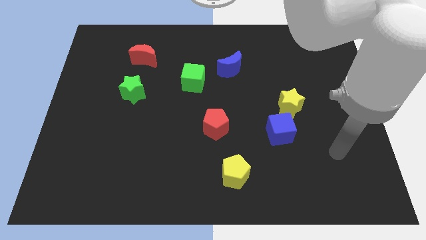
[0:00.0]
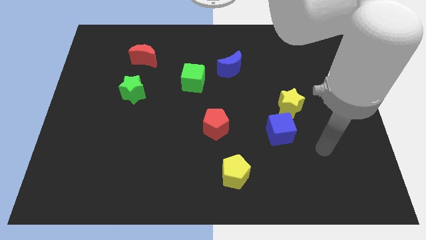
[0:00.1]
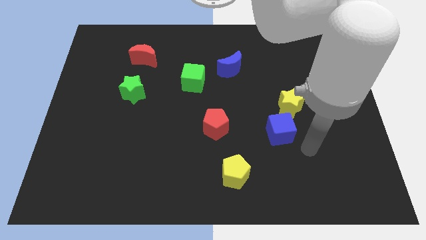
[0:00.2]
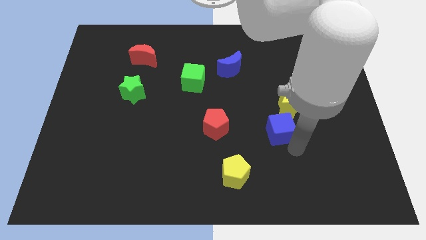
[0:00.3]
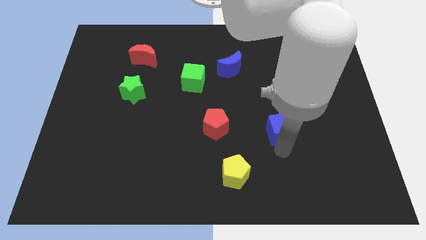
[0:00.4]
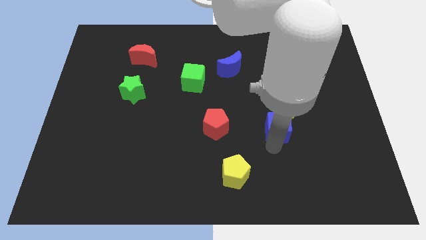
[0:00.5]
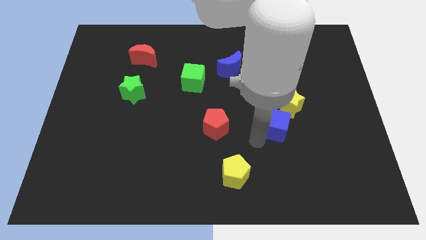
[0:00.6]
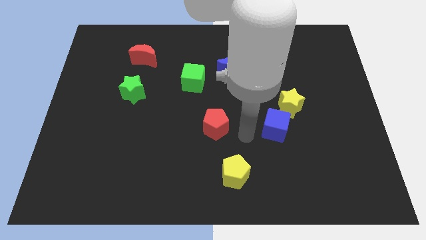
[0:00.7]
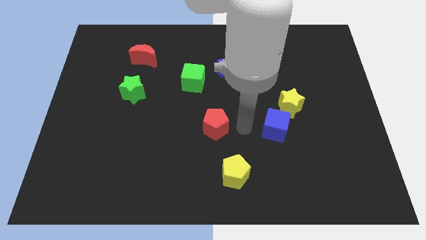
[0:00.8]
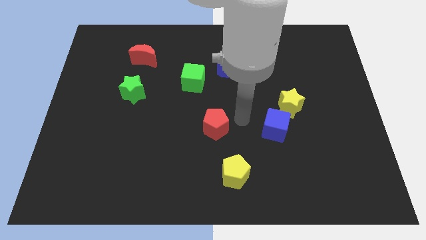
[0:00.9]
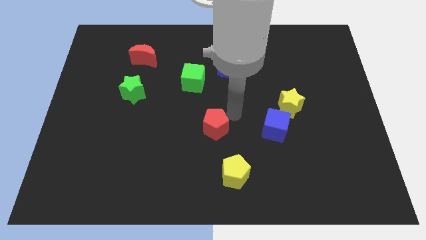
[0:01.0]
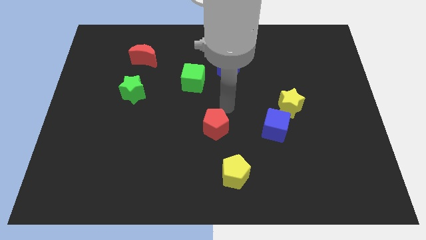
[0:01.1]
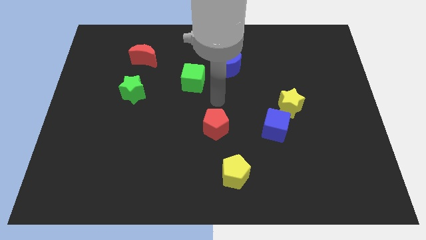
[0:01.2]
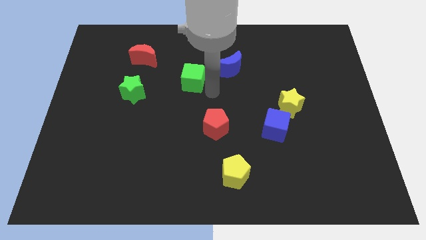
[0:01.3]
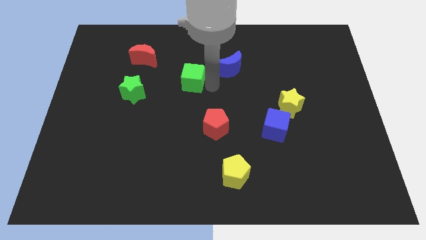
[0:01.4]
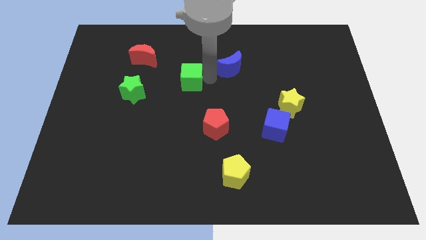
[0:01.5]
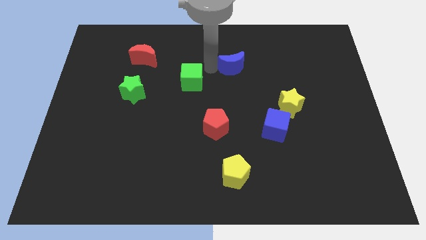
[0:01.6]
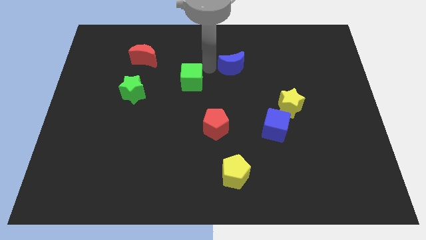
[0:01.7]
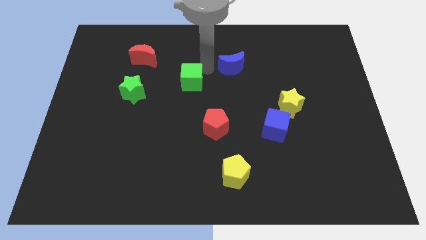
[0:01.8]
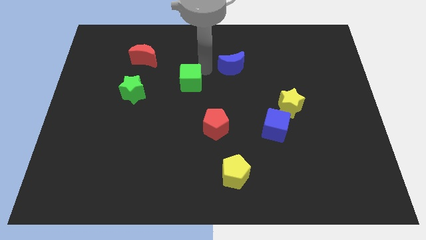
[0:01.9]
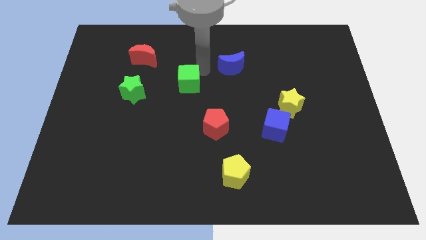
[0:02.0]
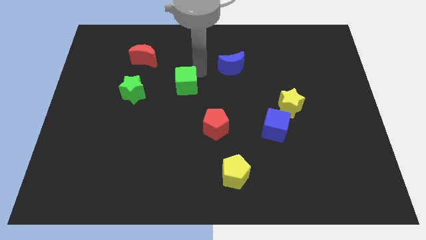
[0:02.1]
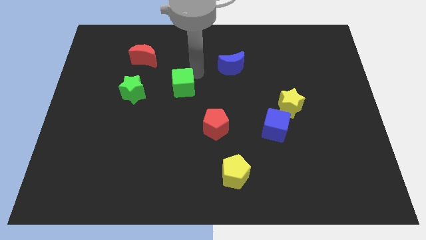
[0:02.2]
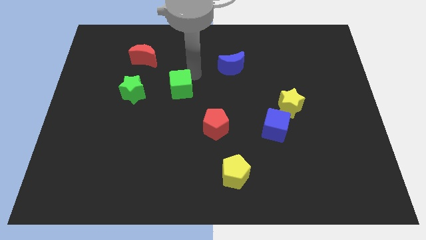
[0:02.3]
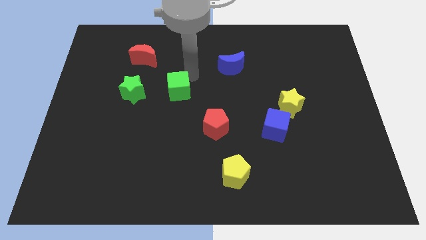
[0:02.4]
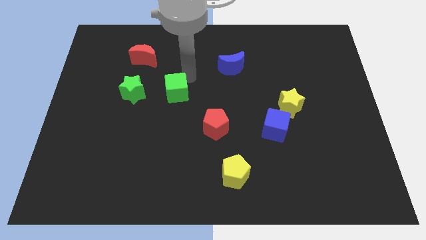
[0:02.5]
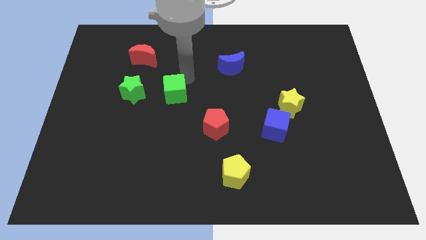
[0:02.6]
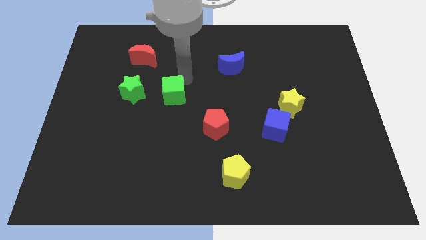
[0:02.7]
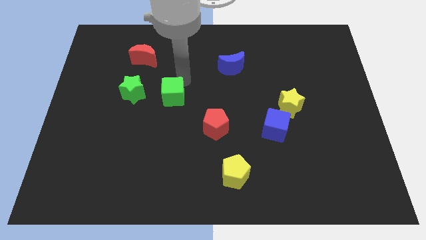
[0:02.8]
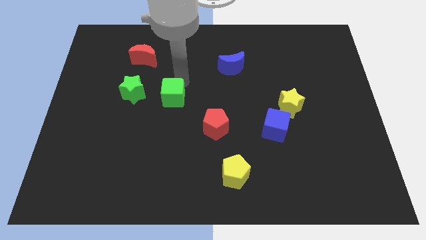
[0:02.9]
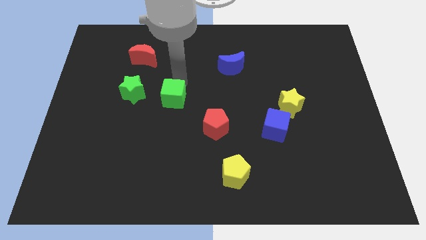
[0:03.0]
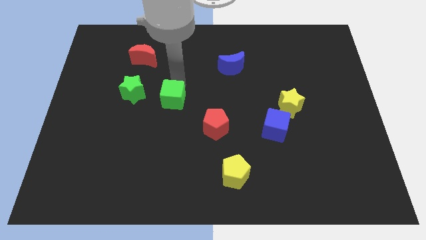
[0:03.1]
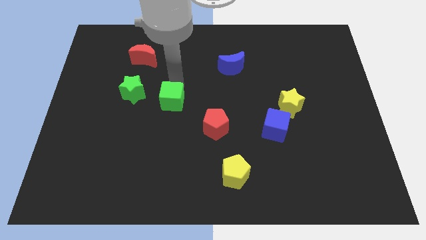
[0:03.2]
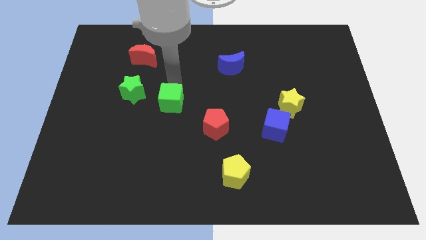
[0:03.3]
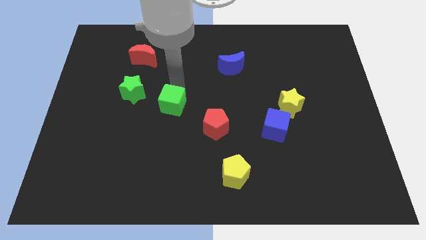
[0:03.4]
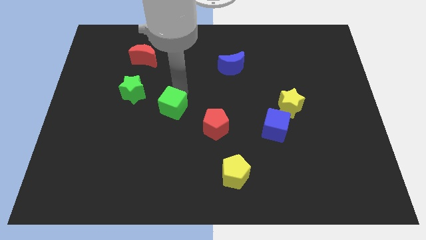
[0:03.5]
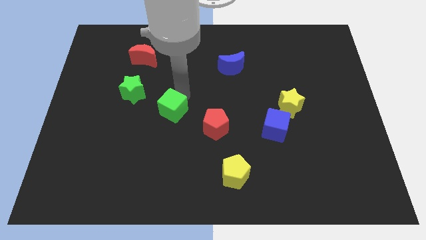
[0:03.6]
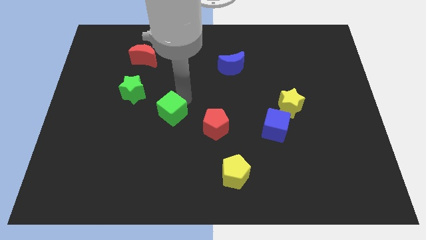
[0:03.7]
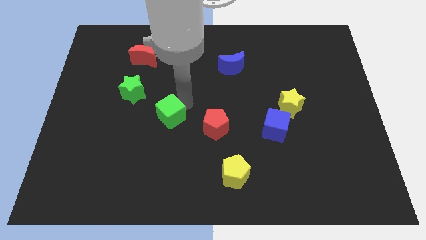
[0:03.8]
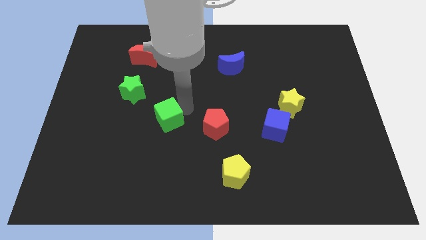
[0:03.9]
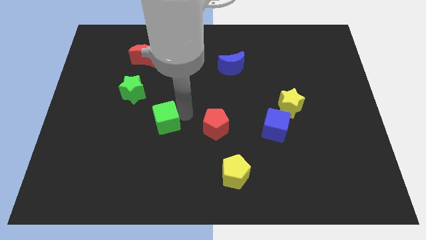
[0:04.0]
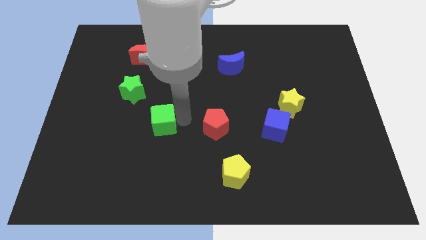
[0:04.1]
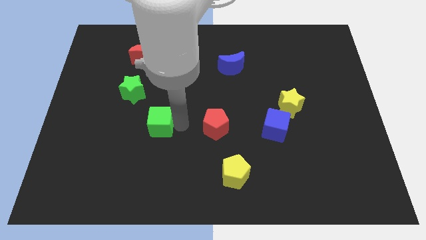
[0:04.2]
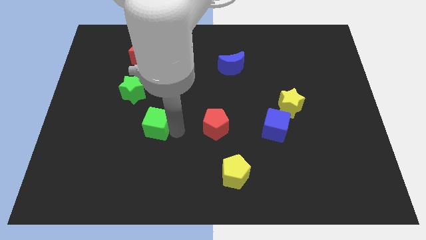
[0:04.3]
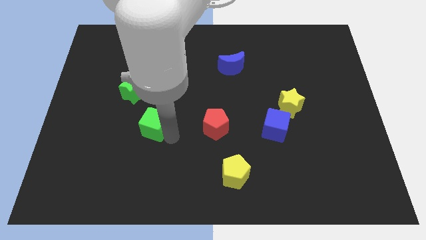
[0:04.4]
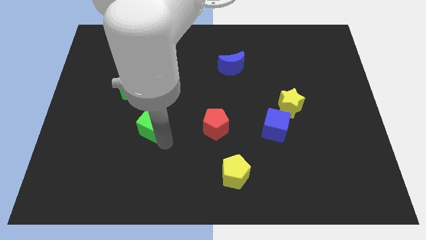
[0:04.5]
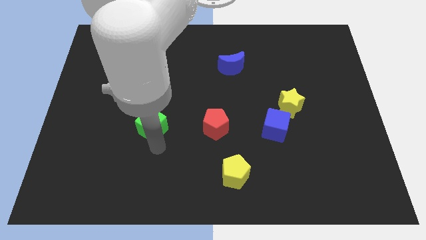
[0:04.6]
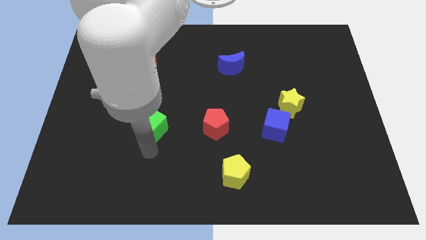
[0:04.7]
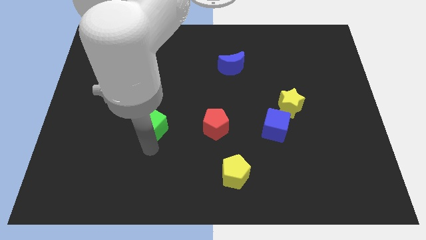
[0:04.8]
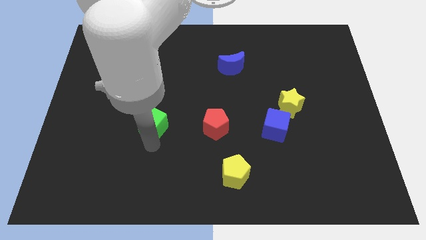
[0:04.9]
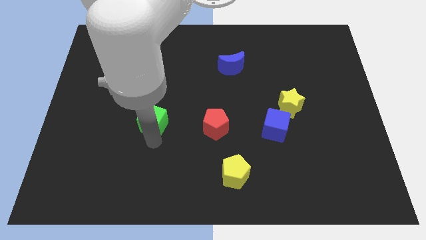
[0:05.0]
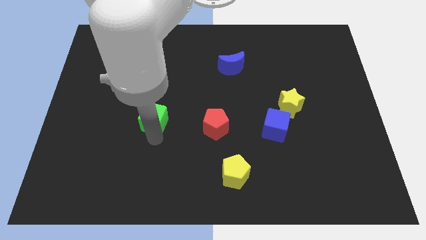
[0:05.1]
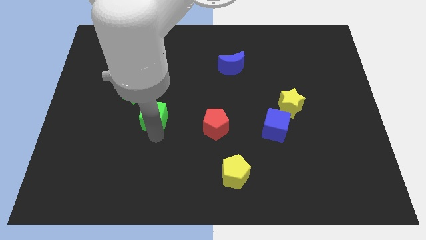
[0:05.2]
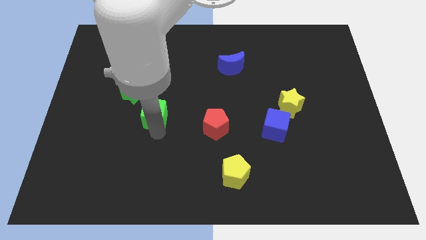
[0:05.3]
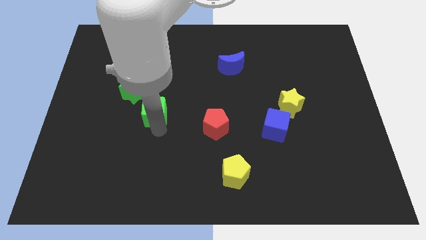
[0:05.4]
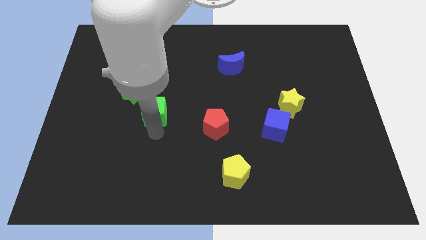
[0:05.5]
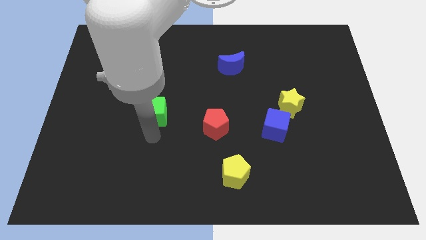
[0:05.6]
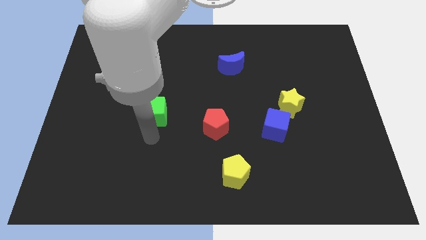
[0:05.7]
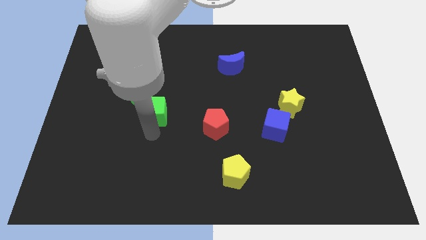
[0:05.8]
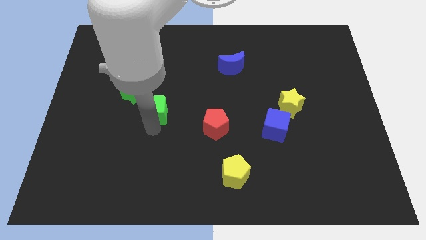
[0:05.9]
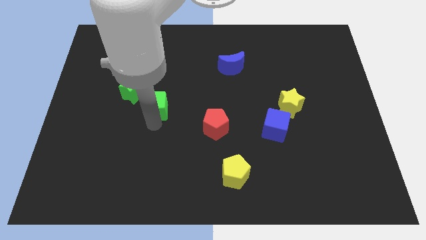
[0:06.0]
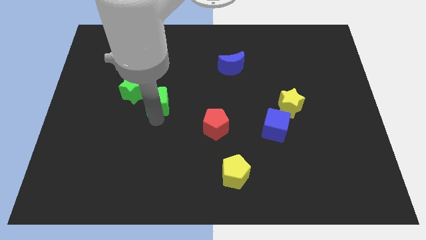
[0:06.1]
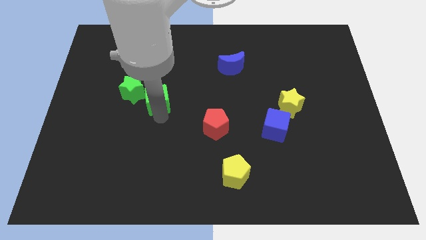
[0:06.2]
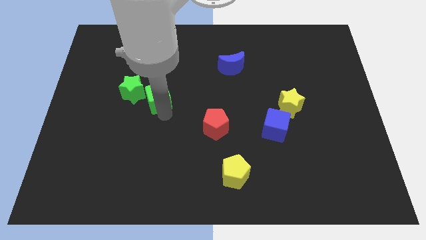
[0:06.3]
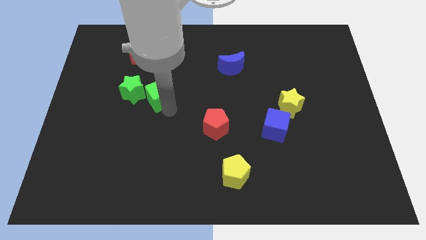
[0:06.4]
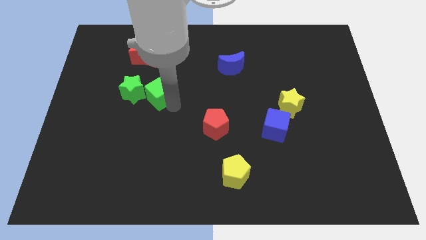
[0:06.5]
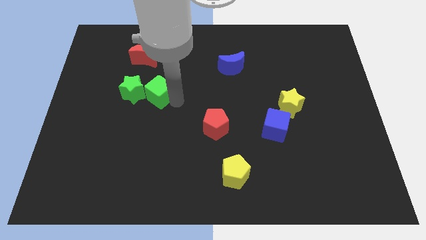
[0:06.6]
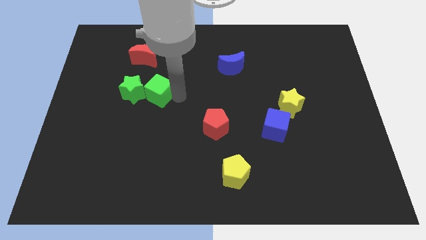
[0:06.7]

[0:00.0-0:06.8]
move the green cube to the bottom of the red moon

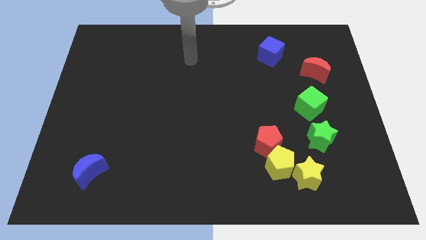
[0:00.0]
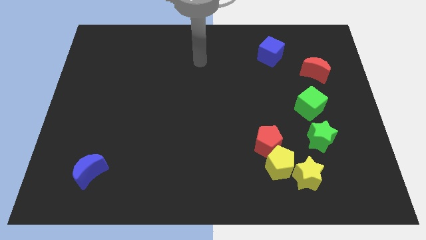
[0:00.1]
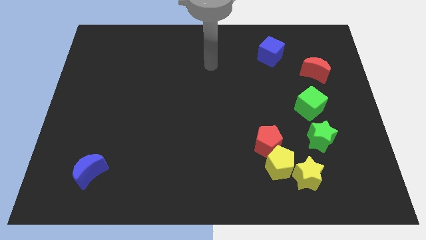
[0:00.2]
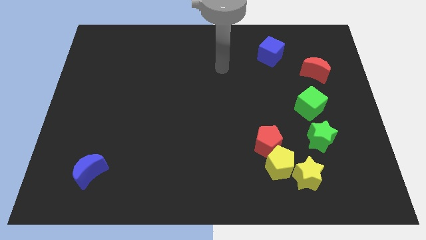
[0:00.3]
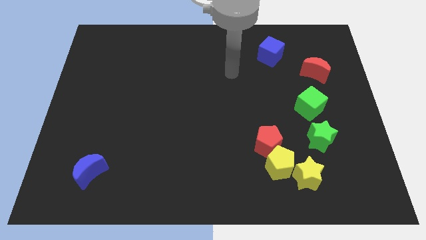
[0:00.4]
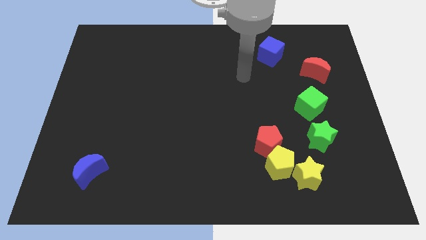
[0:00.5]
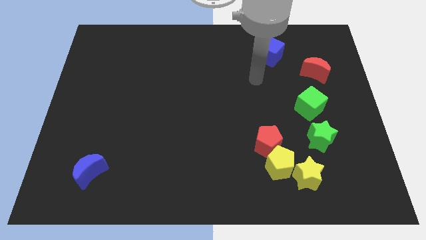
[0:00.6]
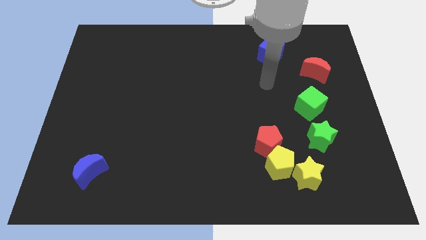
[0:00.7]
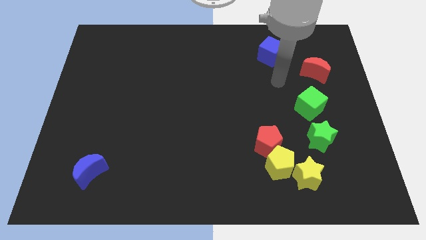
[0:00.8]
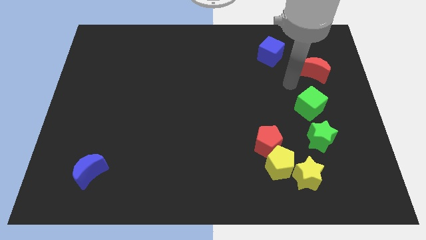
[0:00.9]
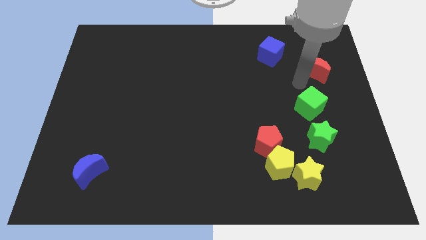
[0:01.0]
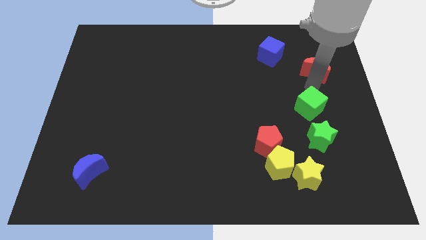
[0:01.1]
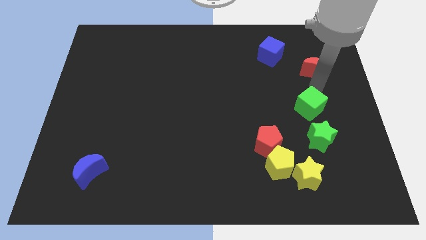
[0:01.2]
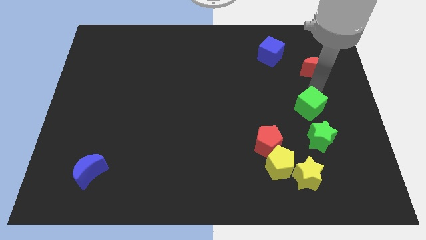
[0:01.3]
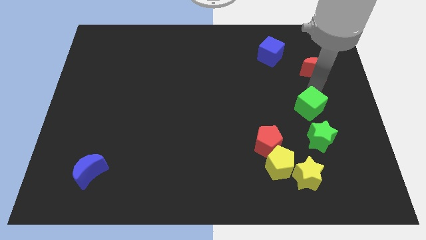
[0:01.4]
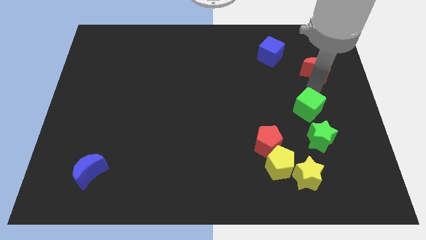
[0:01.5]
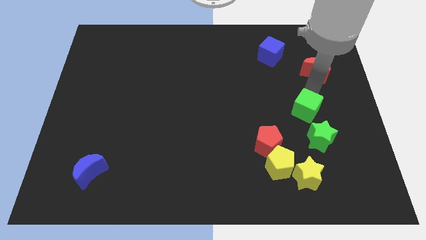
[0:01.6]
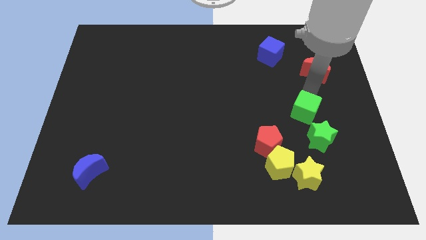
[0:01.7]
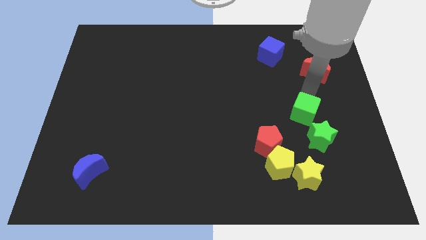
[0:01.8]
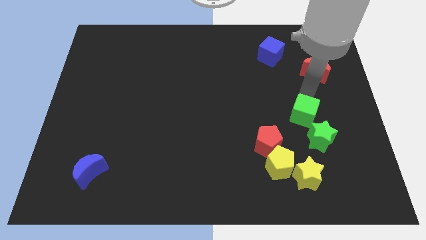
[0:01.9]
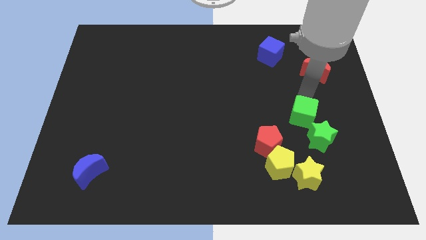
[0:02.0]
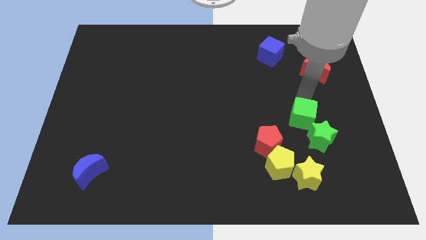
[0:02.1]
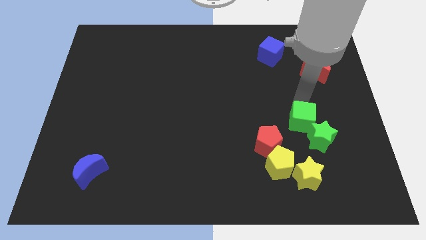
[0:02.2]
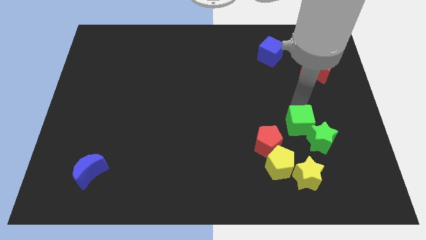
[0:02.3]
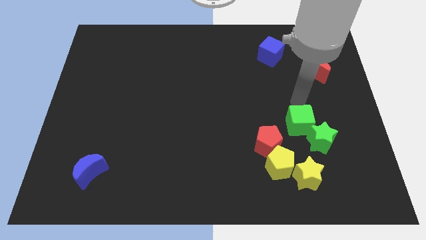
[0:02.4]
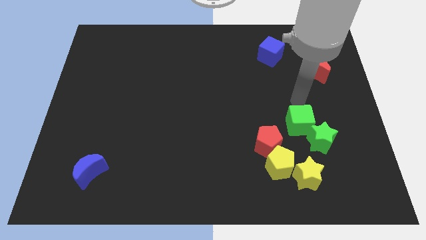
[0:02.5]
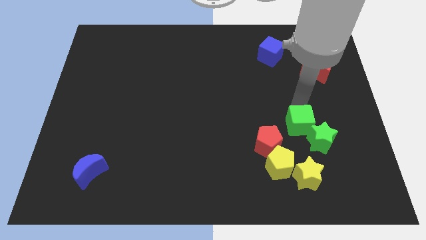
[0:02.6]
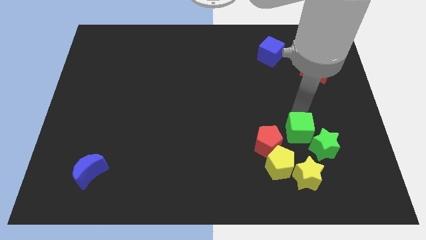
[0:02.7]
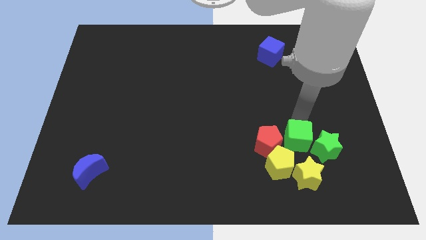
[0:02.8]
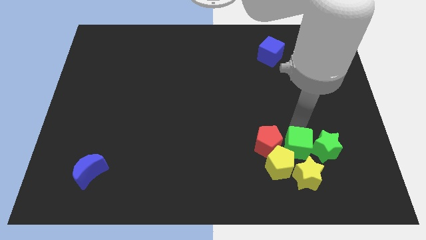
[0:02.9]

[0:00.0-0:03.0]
push the green cube to the bottom left side of the green star
